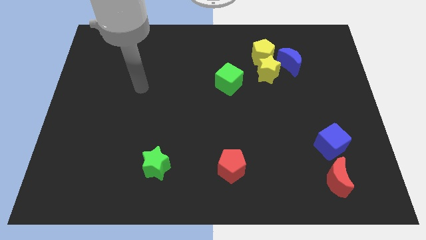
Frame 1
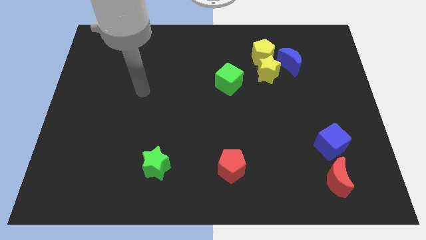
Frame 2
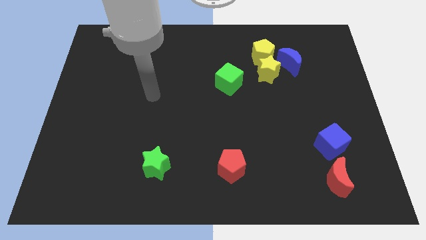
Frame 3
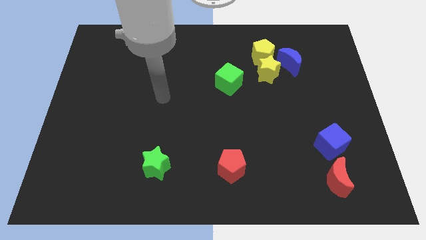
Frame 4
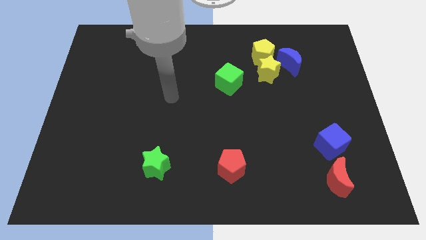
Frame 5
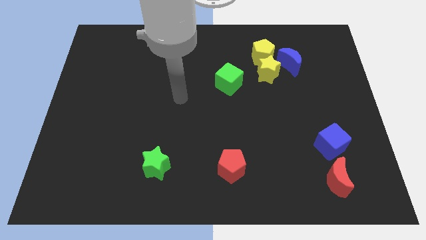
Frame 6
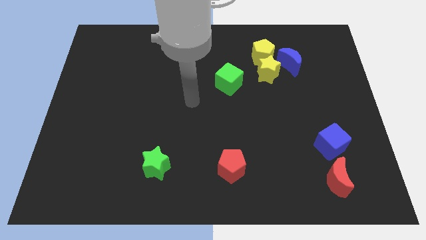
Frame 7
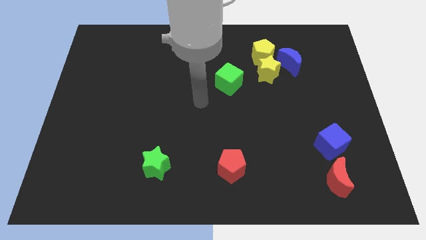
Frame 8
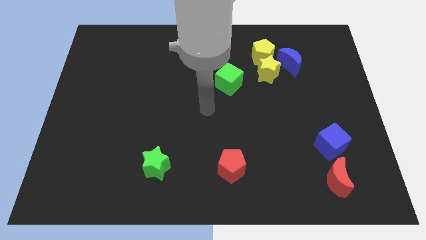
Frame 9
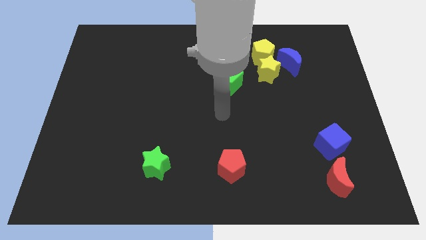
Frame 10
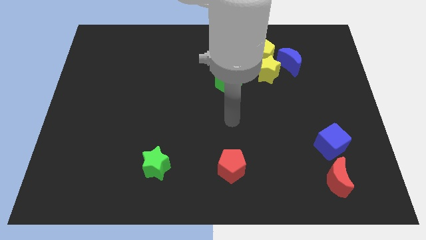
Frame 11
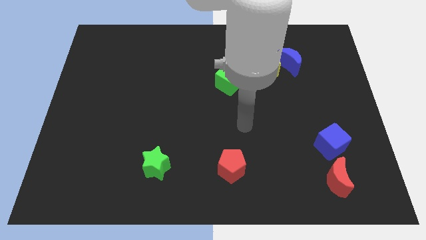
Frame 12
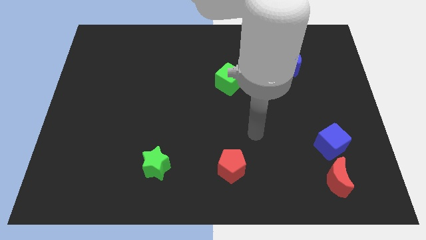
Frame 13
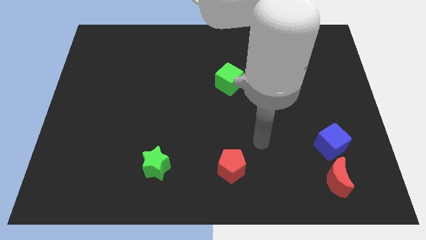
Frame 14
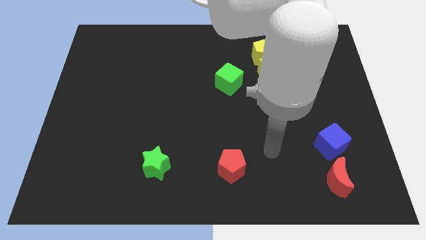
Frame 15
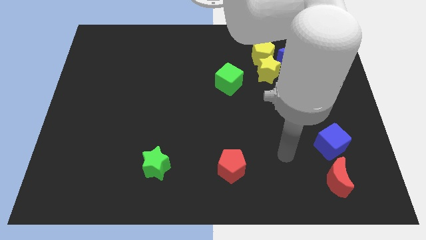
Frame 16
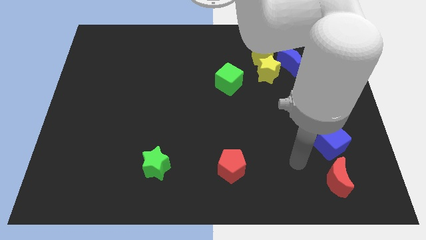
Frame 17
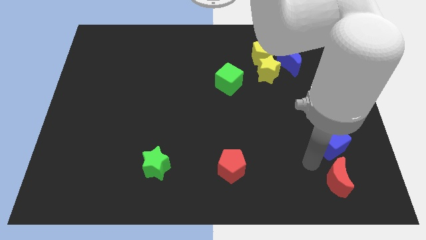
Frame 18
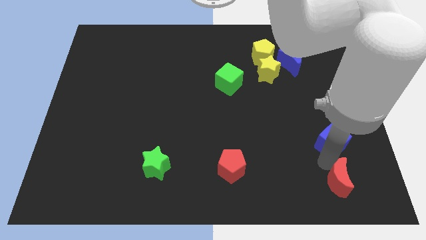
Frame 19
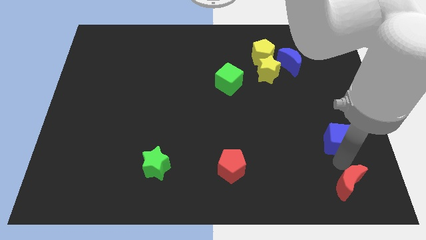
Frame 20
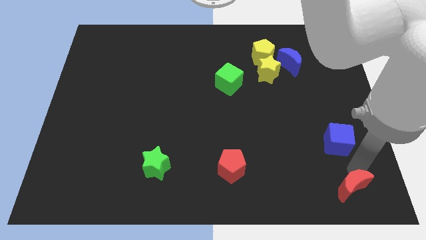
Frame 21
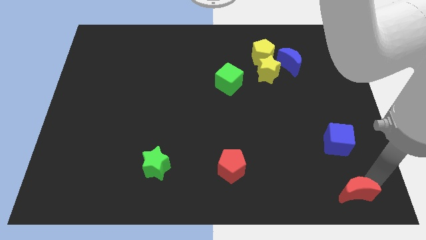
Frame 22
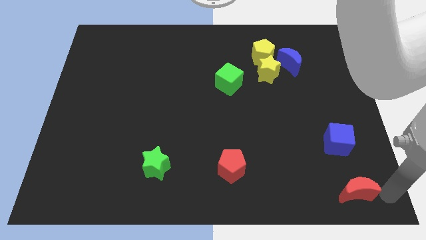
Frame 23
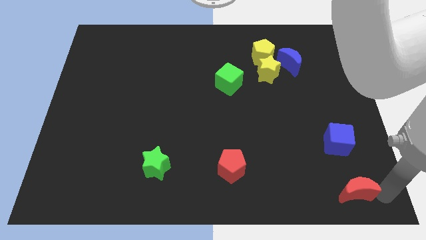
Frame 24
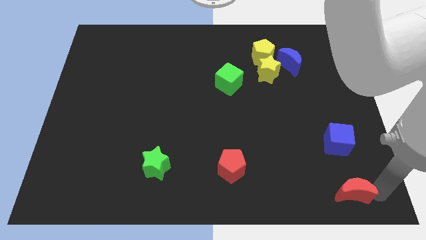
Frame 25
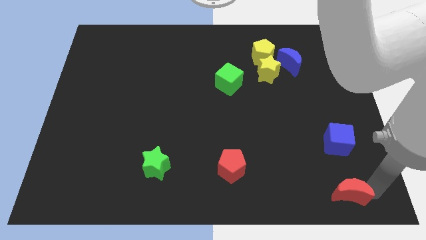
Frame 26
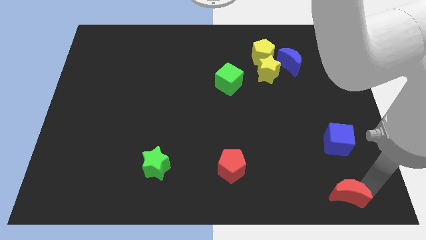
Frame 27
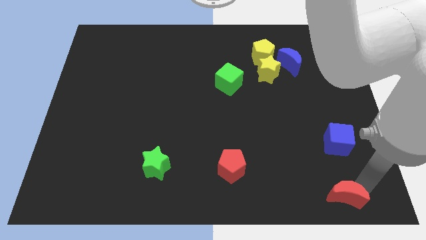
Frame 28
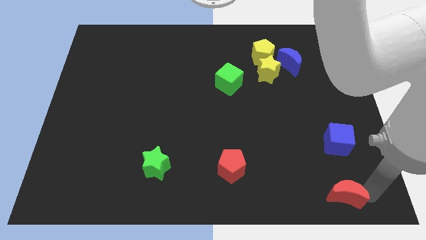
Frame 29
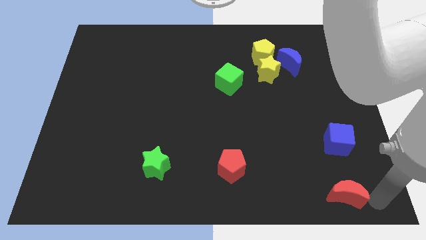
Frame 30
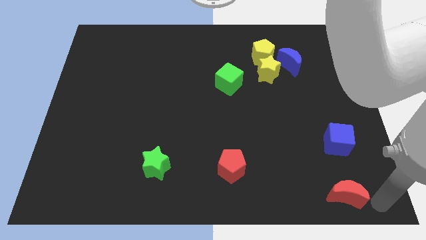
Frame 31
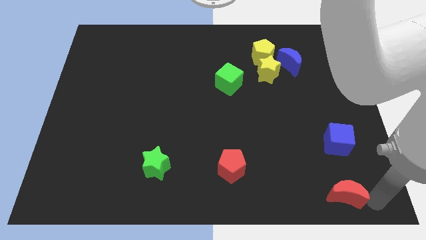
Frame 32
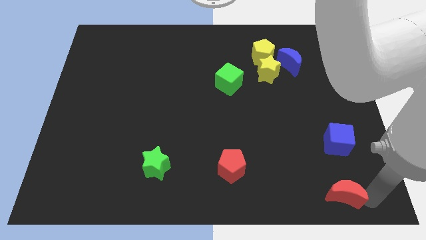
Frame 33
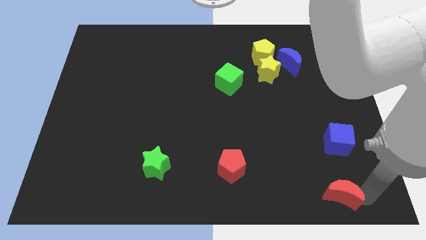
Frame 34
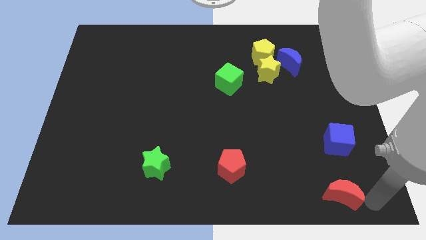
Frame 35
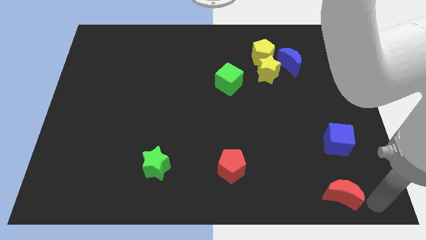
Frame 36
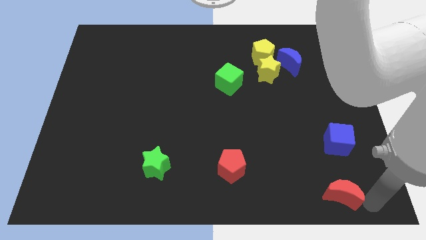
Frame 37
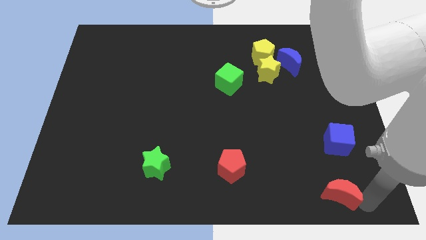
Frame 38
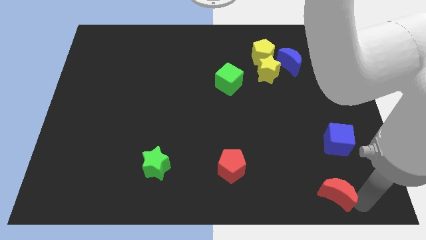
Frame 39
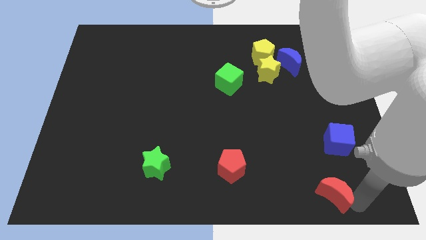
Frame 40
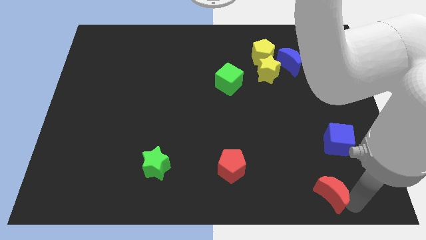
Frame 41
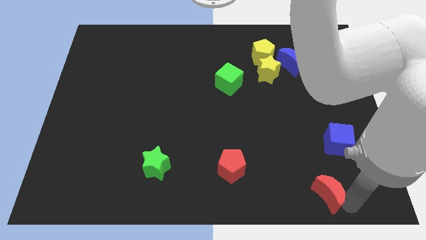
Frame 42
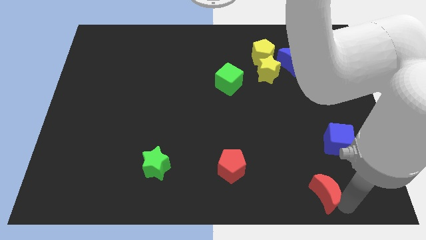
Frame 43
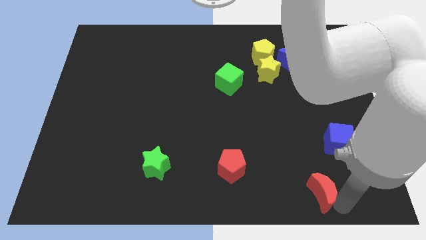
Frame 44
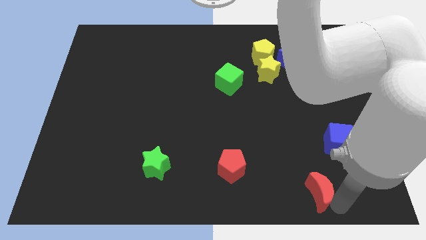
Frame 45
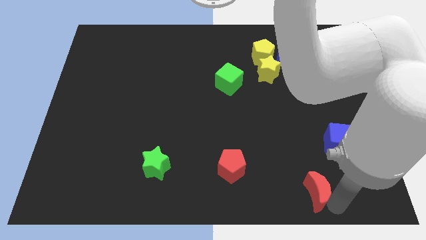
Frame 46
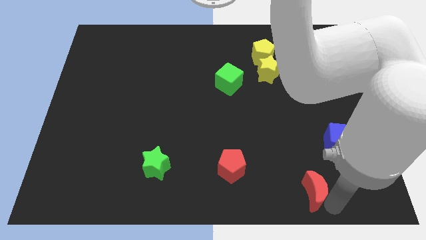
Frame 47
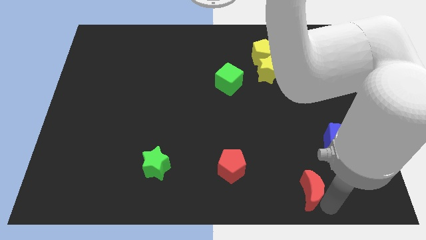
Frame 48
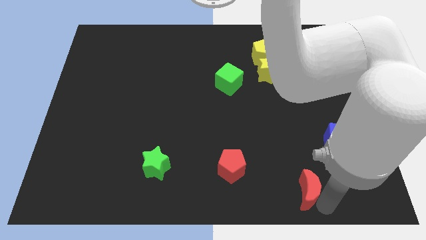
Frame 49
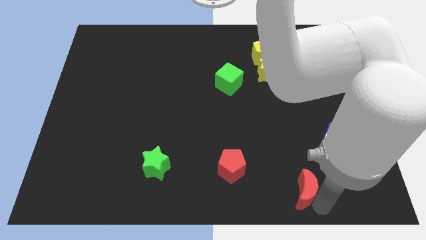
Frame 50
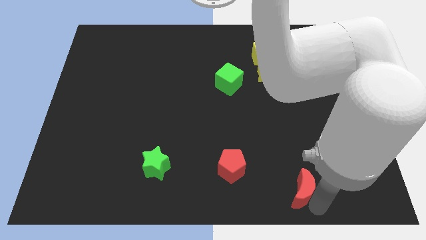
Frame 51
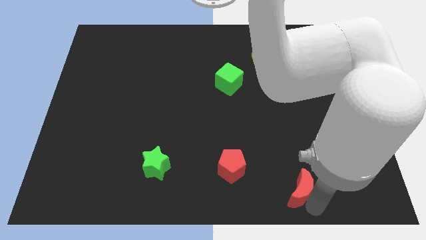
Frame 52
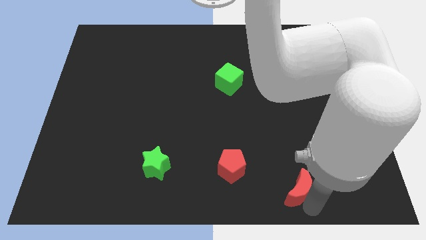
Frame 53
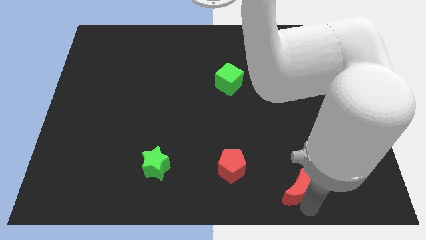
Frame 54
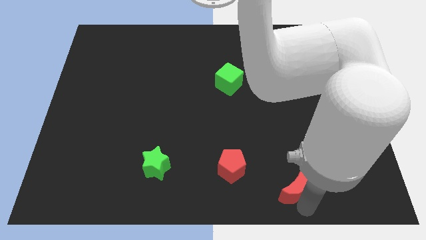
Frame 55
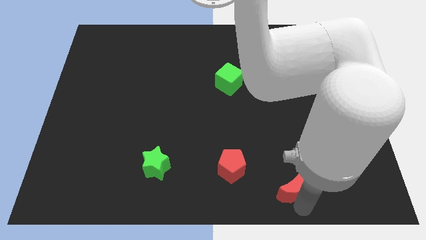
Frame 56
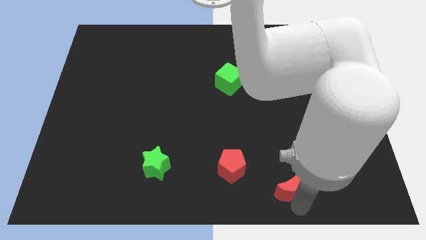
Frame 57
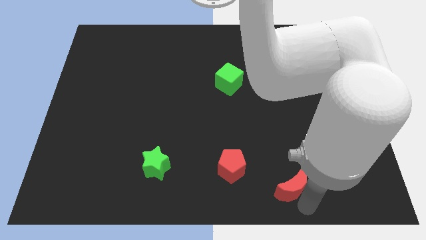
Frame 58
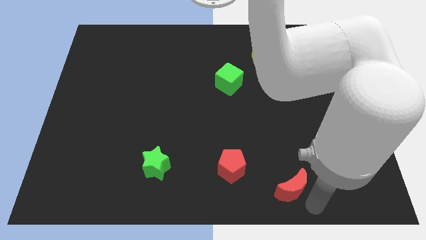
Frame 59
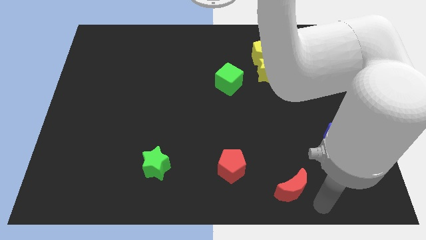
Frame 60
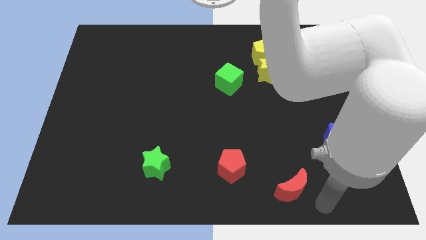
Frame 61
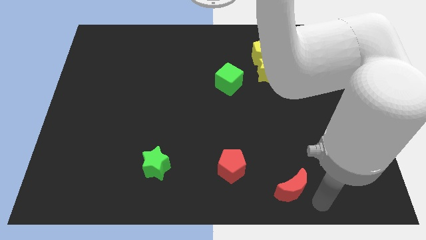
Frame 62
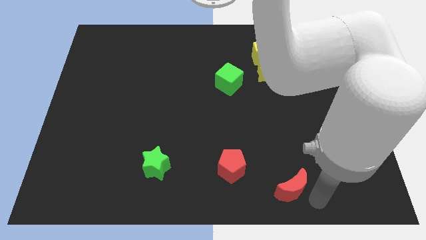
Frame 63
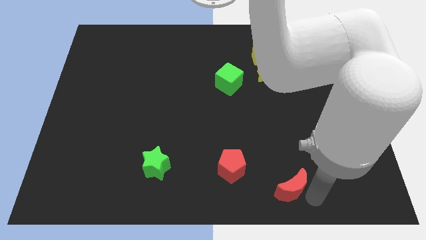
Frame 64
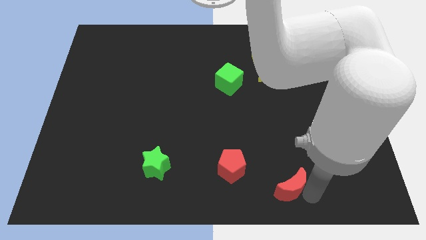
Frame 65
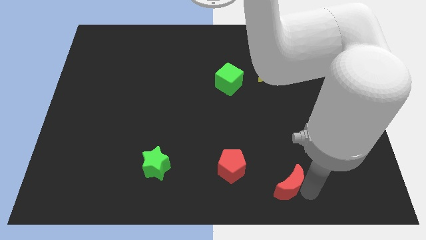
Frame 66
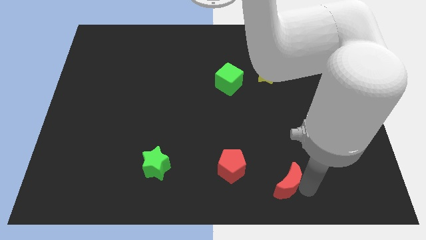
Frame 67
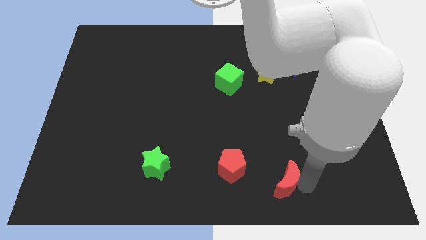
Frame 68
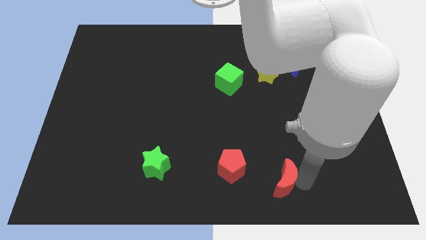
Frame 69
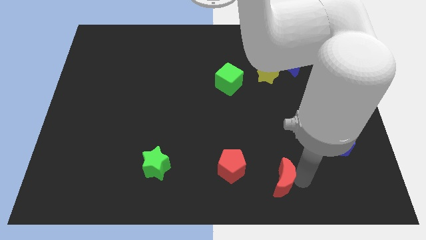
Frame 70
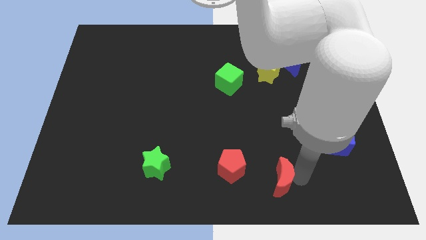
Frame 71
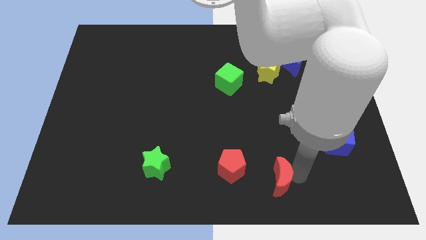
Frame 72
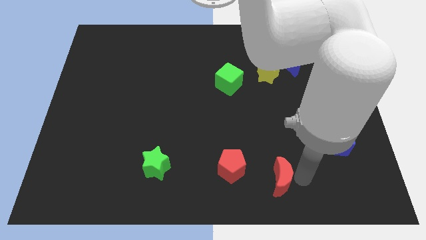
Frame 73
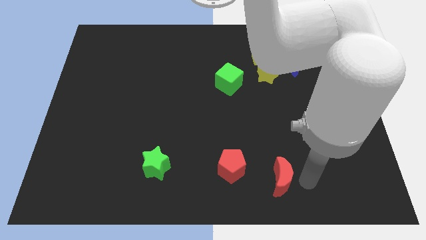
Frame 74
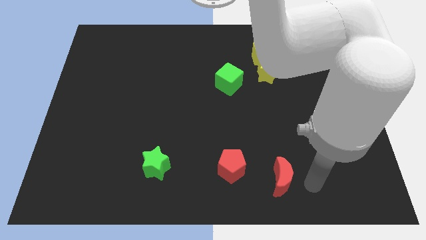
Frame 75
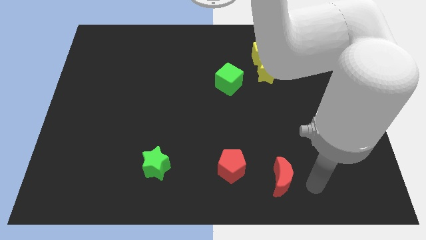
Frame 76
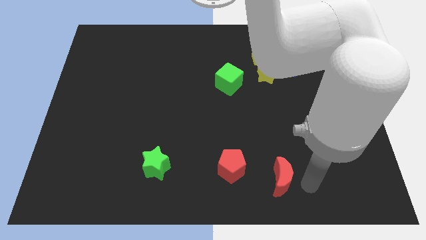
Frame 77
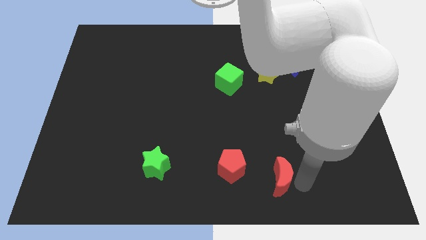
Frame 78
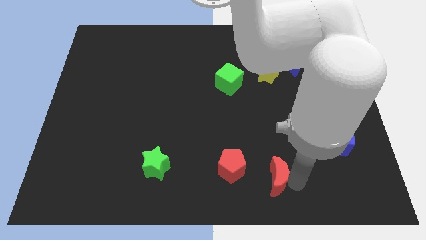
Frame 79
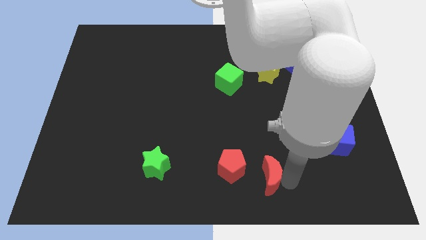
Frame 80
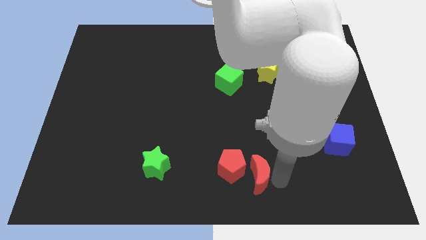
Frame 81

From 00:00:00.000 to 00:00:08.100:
put the red moon next to the red pentagon
